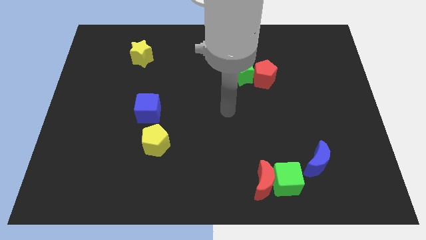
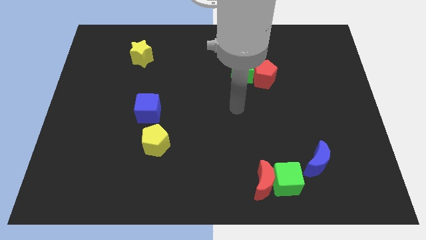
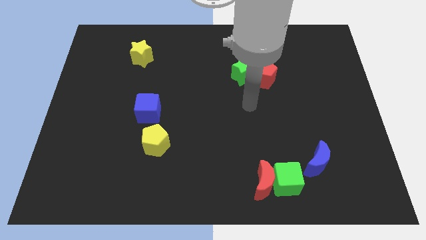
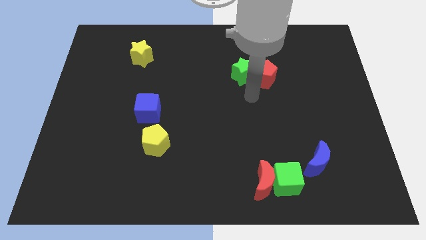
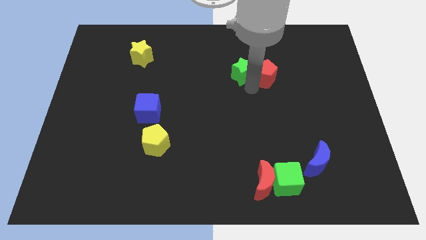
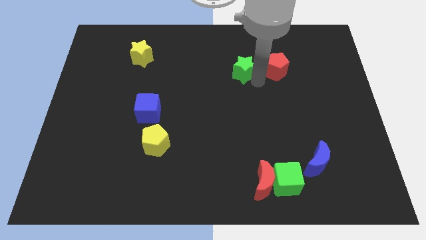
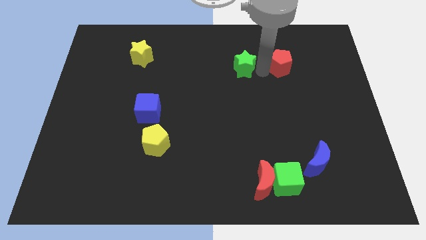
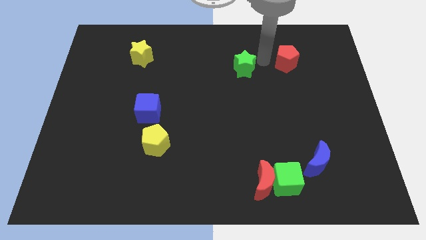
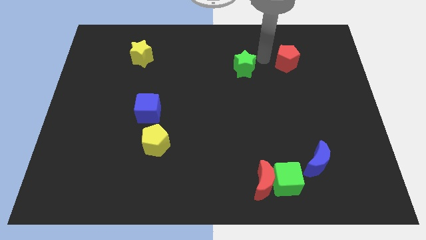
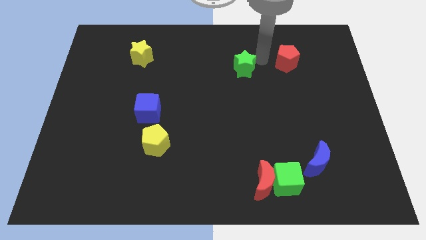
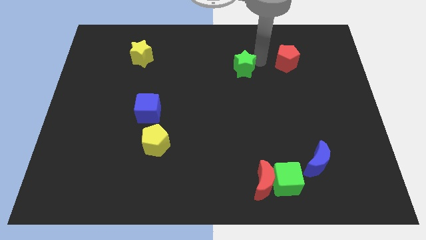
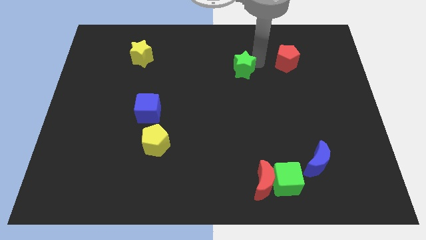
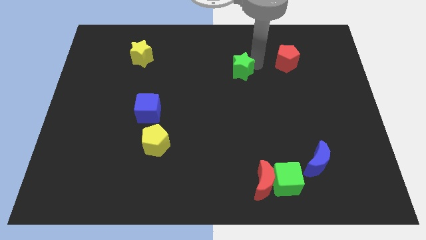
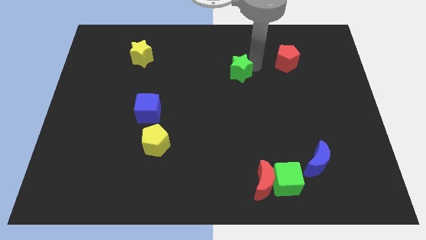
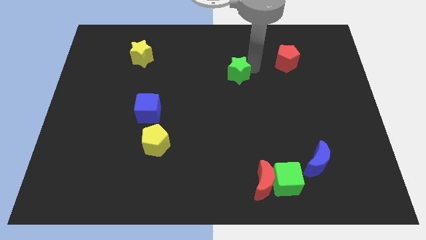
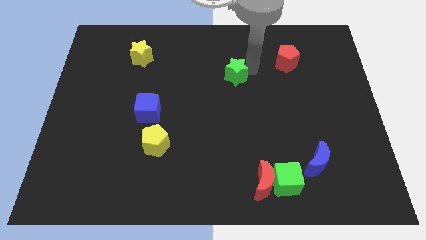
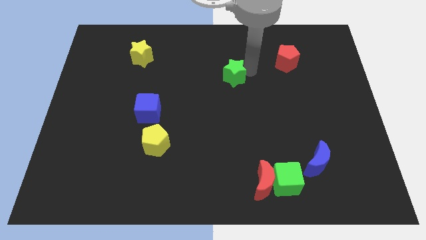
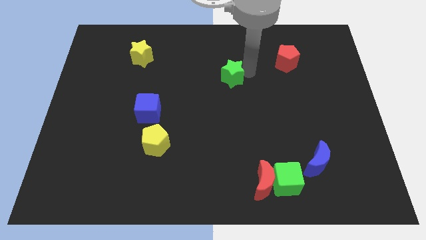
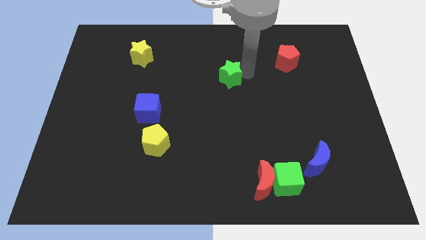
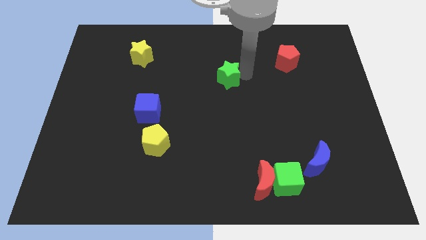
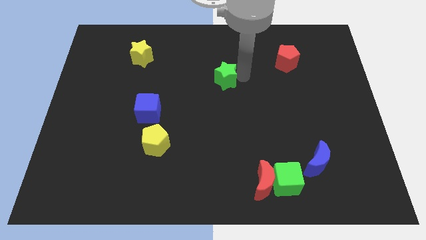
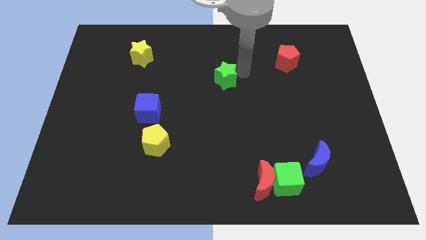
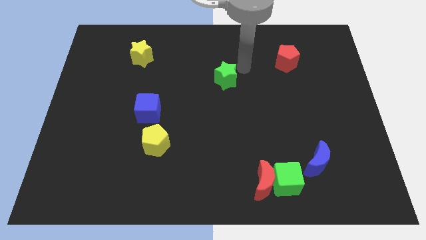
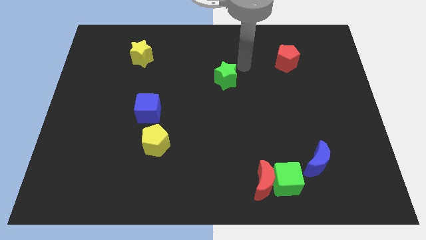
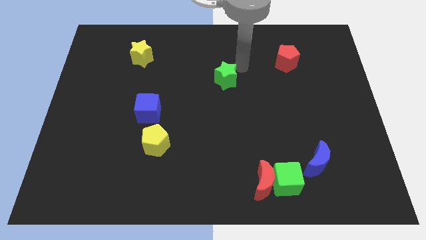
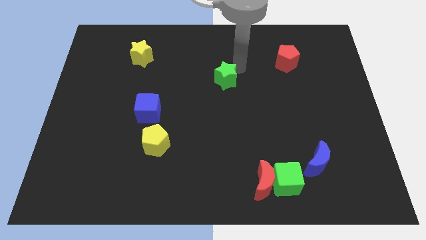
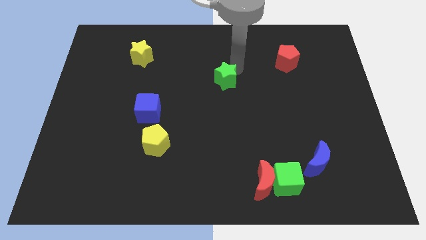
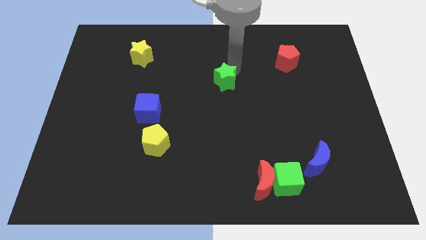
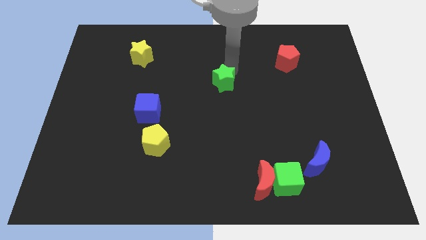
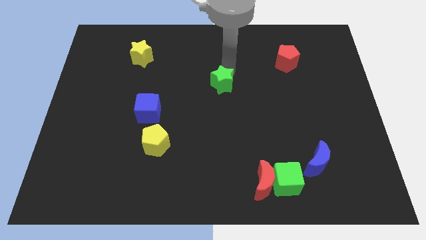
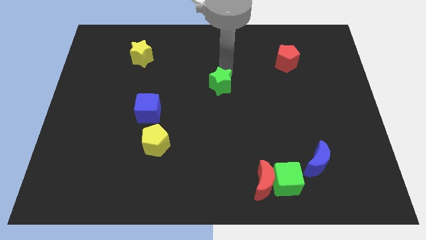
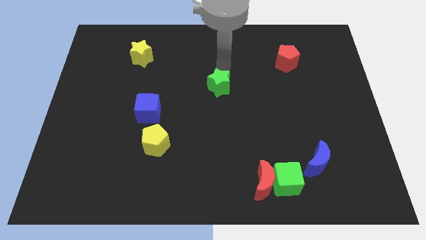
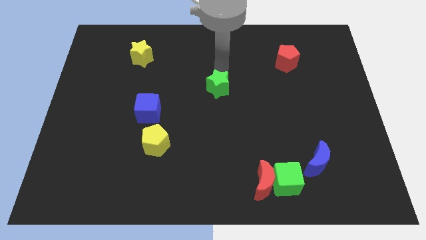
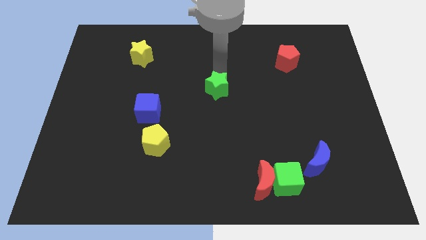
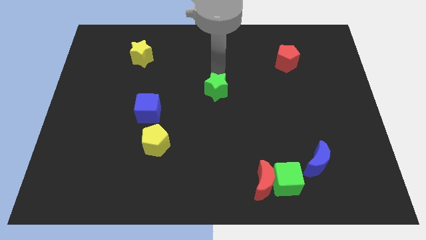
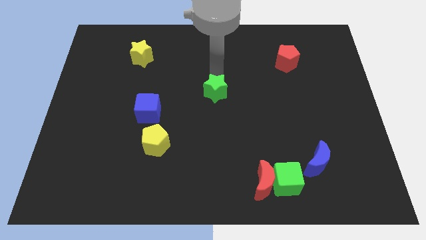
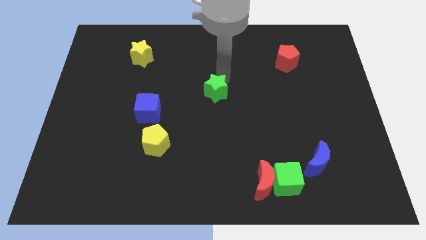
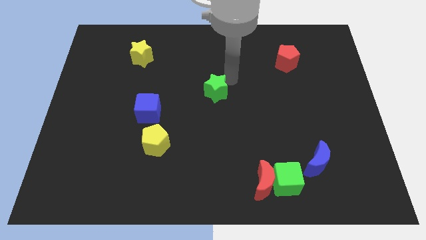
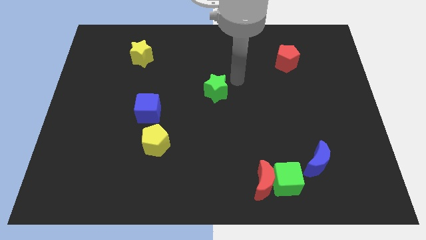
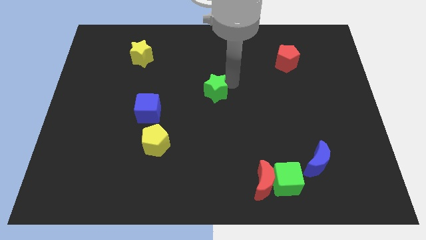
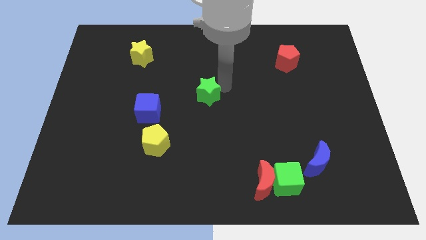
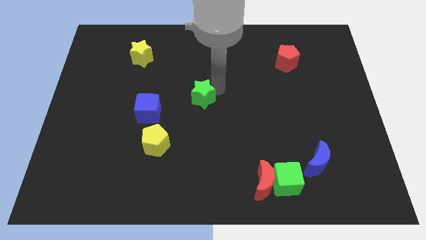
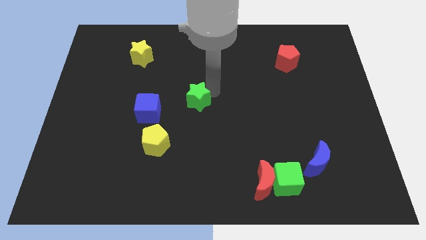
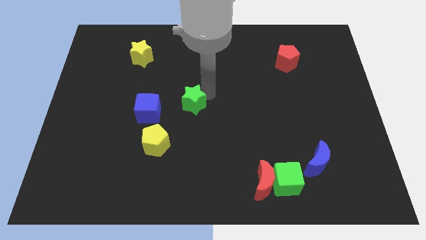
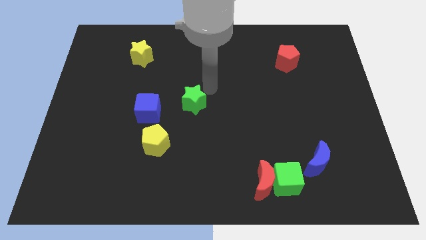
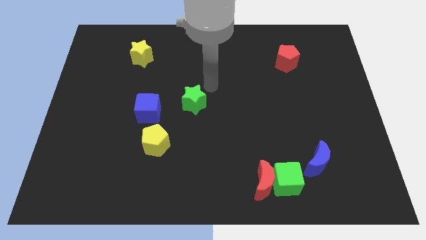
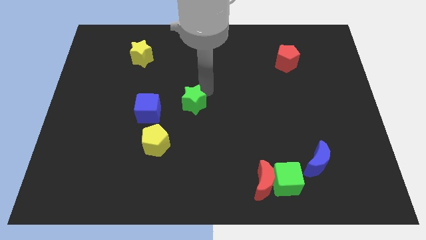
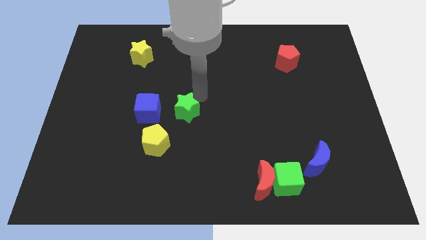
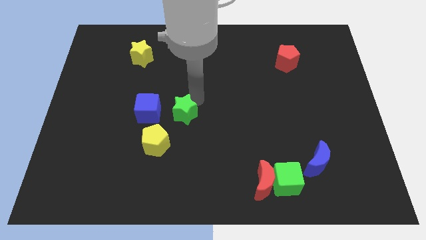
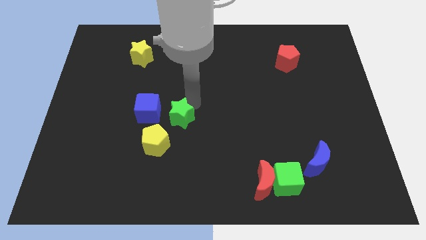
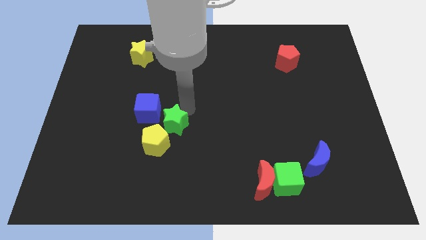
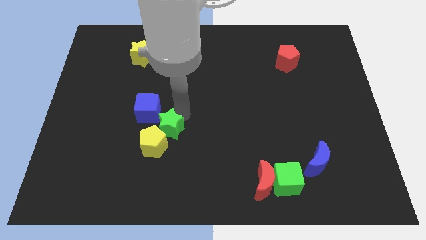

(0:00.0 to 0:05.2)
push the green star close to the yellow pentagon

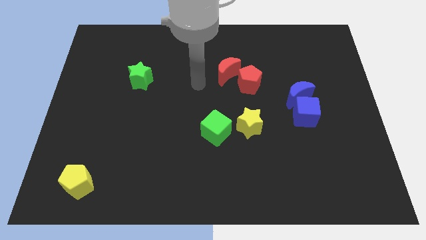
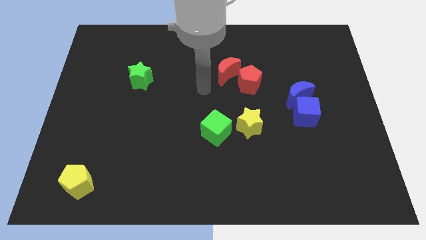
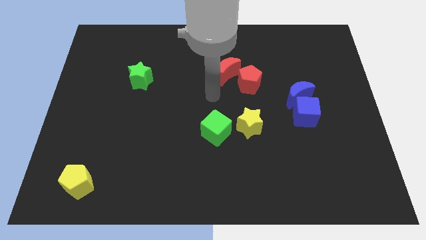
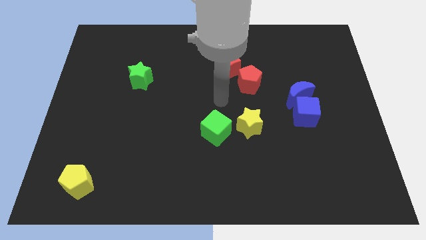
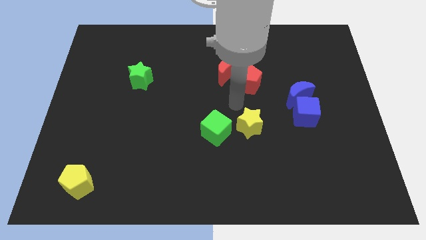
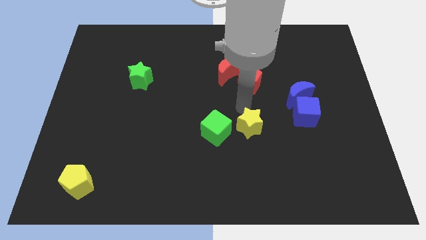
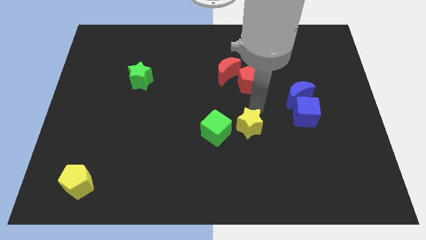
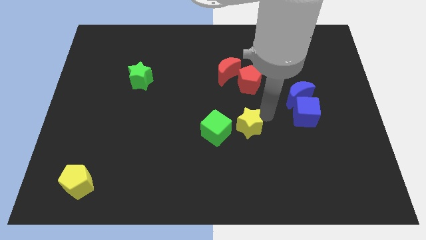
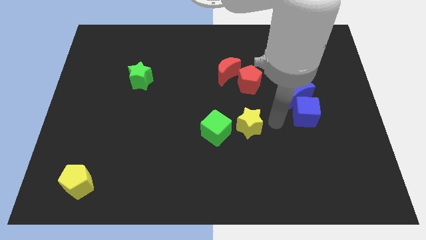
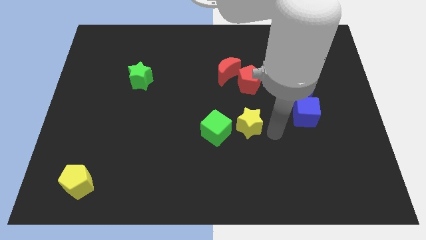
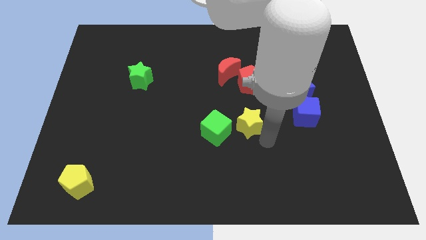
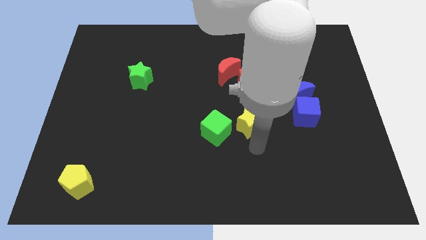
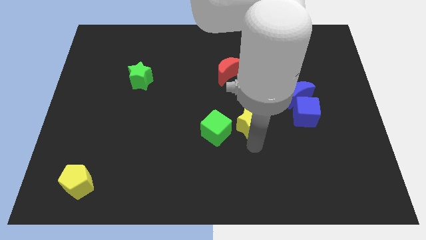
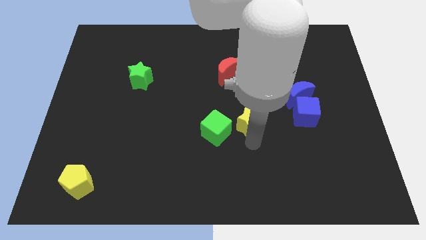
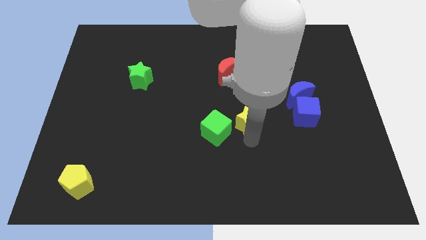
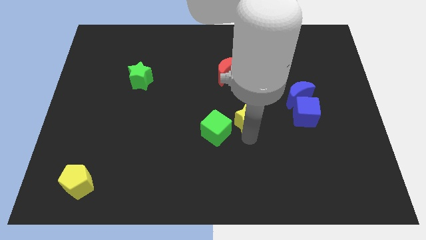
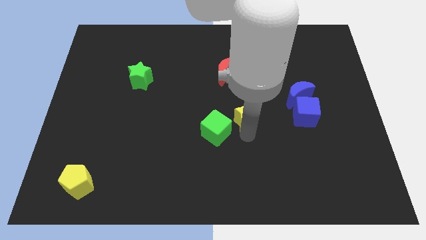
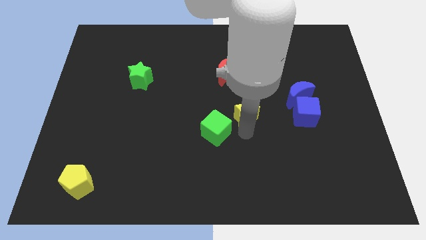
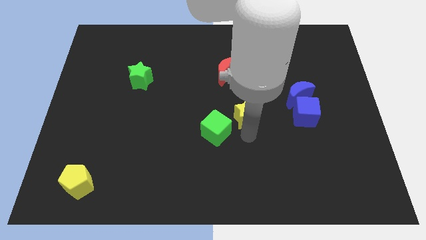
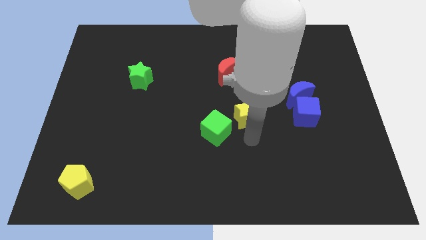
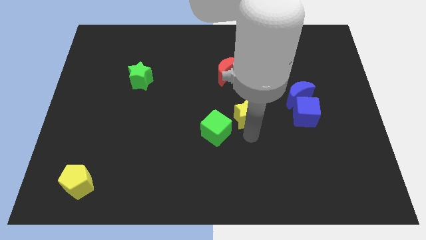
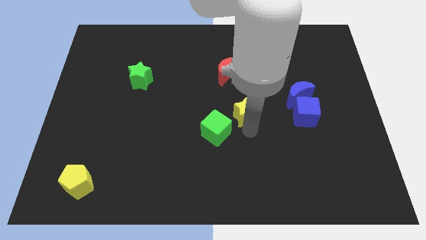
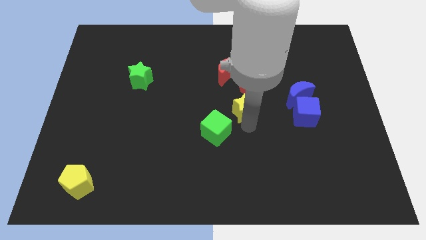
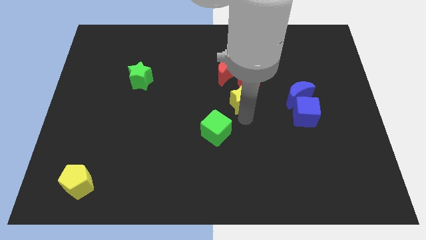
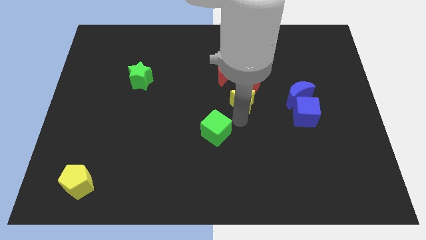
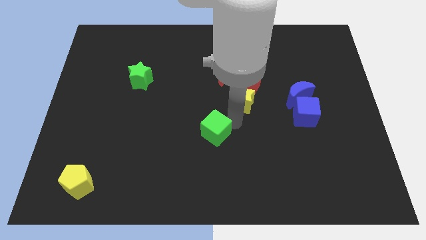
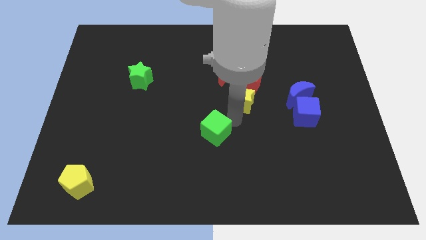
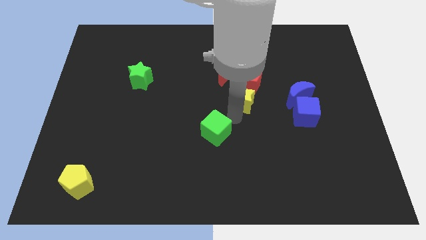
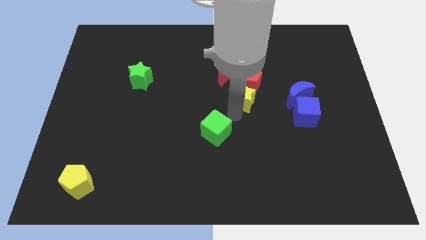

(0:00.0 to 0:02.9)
slide the yellow star next to the red pentagon
